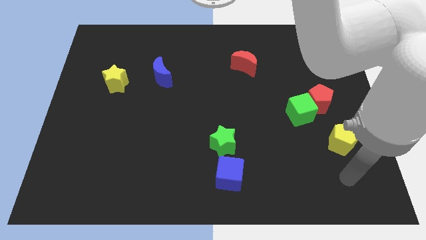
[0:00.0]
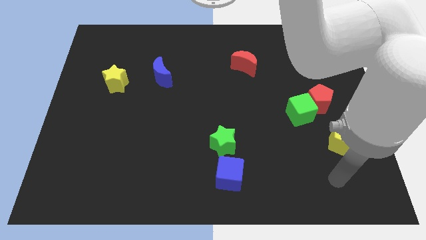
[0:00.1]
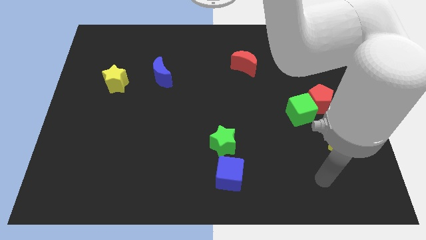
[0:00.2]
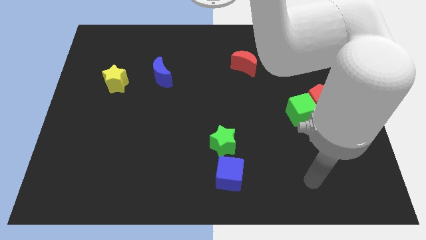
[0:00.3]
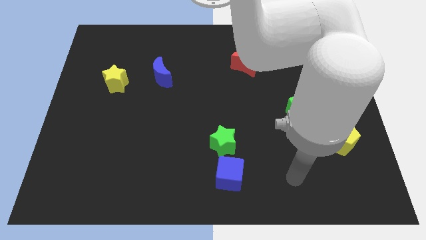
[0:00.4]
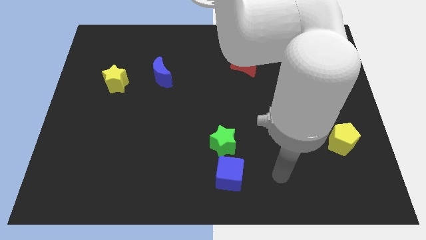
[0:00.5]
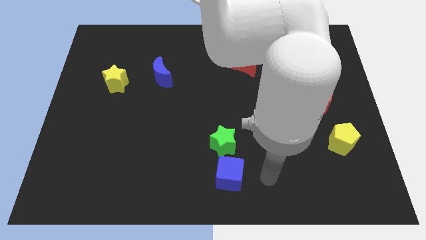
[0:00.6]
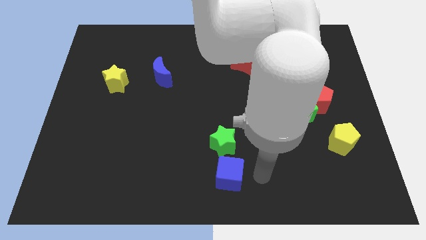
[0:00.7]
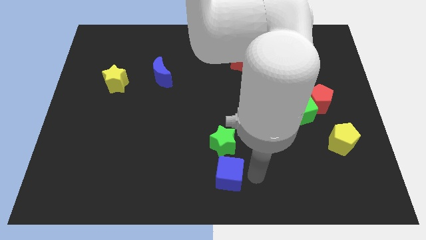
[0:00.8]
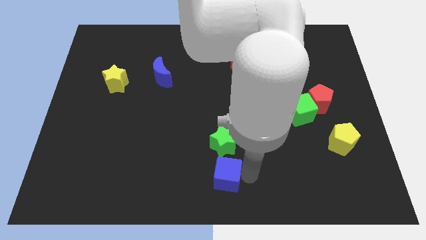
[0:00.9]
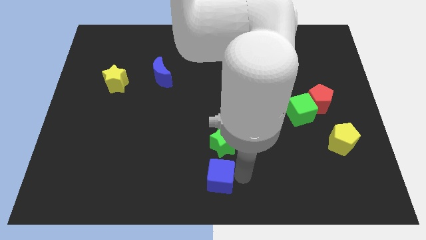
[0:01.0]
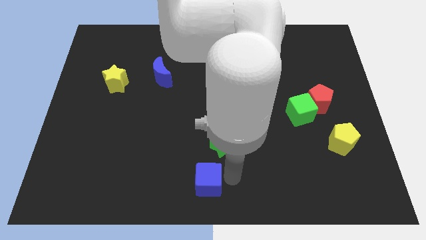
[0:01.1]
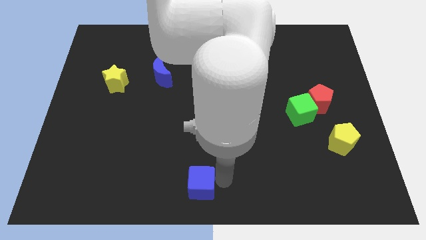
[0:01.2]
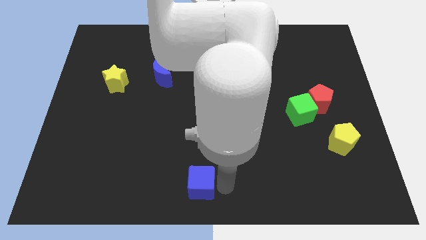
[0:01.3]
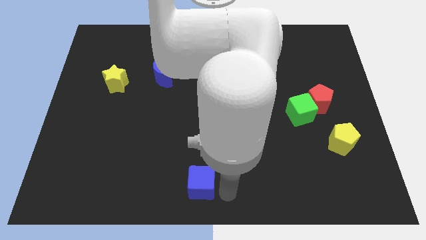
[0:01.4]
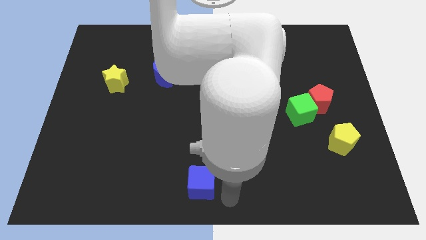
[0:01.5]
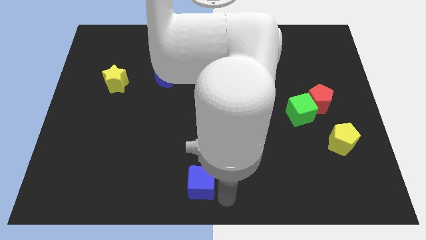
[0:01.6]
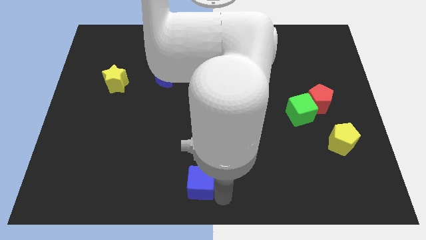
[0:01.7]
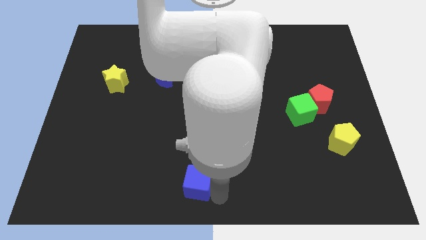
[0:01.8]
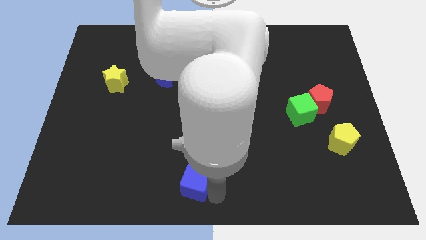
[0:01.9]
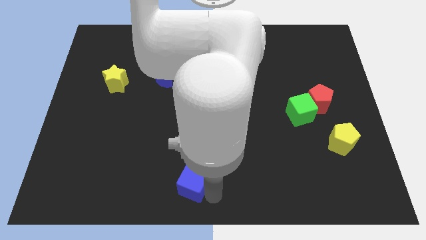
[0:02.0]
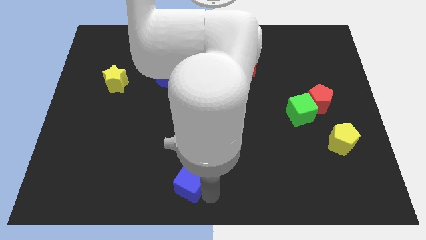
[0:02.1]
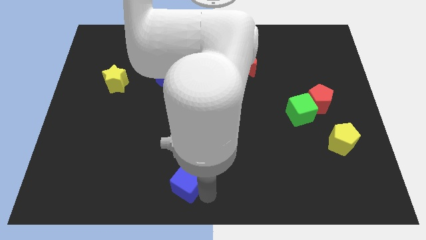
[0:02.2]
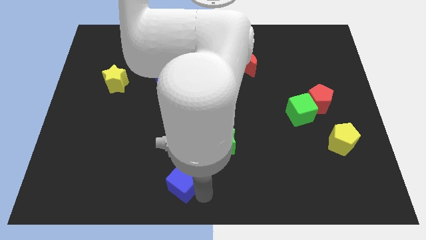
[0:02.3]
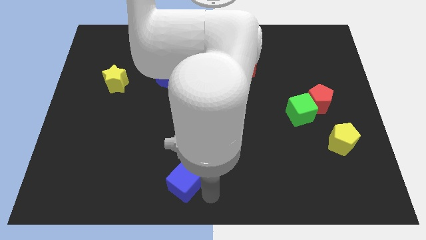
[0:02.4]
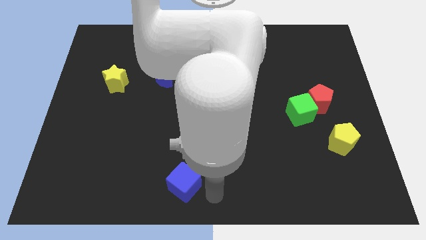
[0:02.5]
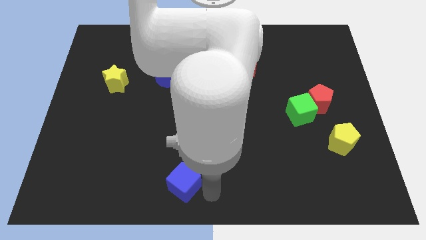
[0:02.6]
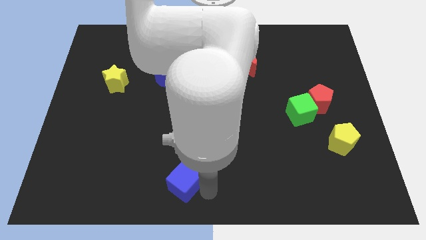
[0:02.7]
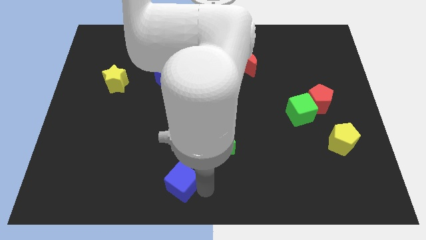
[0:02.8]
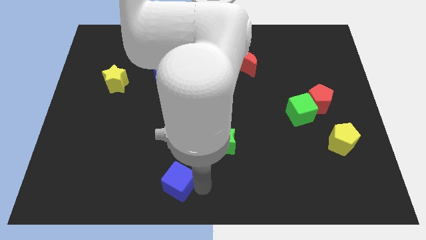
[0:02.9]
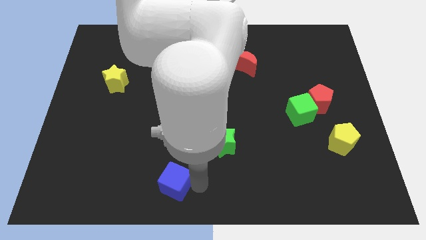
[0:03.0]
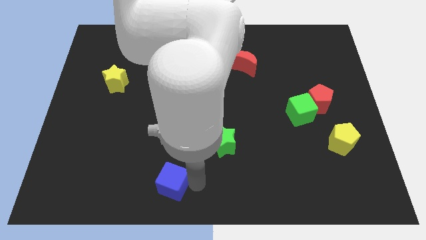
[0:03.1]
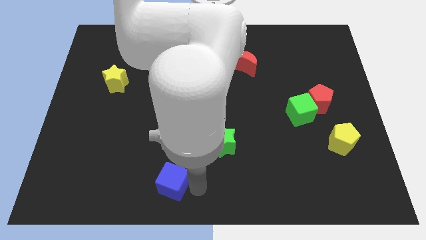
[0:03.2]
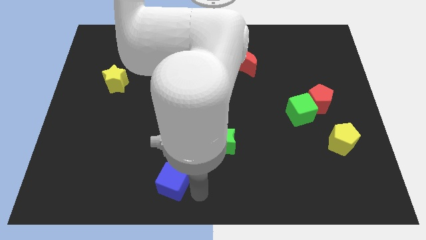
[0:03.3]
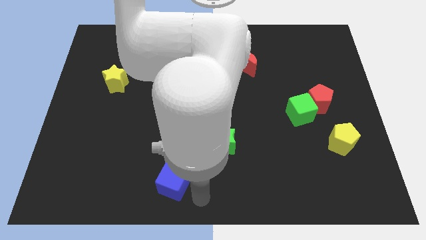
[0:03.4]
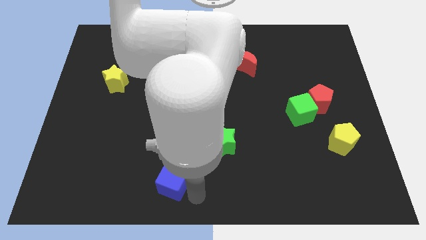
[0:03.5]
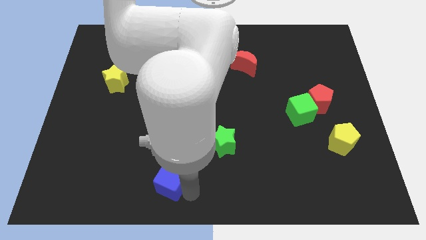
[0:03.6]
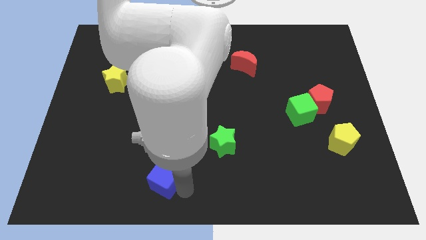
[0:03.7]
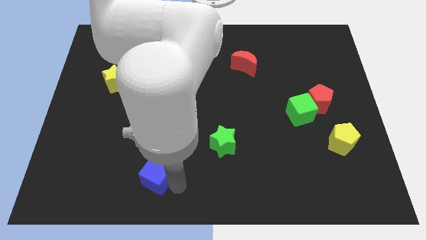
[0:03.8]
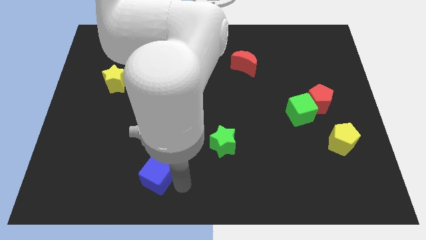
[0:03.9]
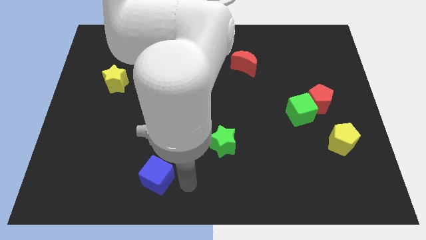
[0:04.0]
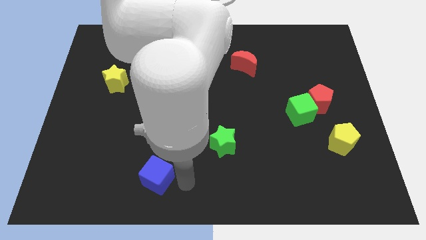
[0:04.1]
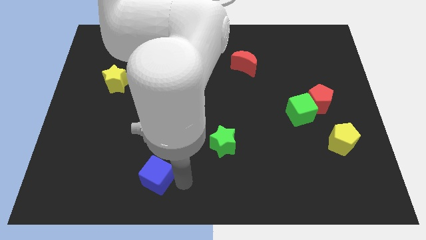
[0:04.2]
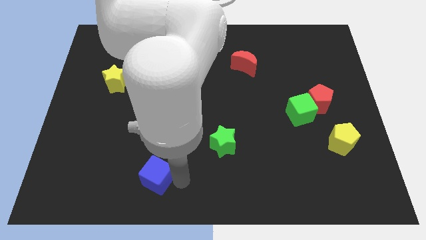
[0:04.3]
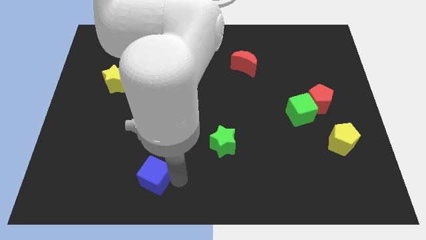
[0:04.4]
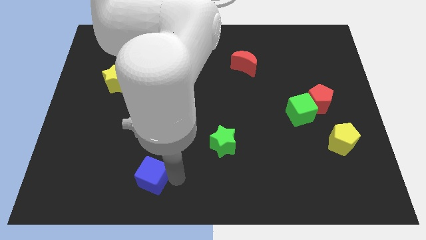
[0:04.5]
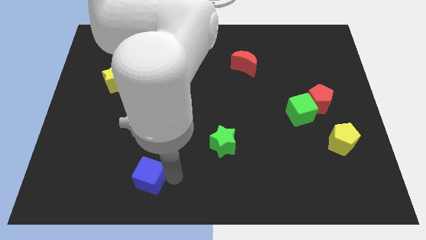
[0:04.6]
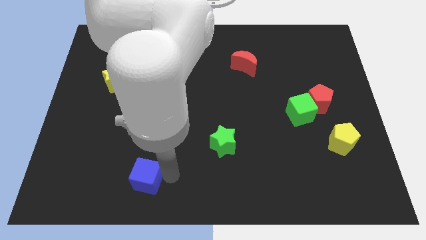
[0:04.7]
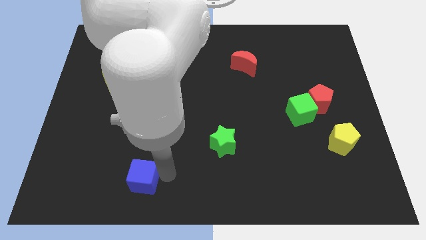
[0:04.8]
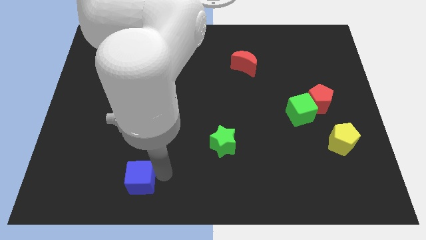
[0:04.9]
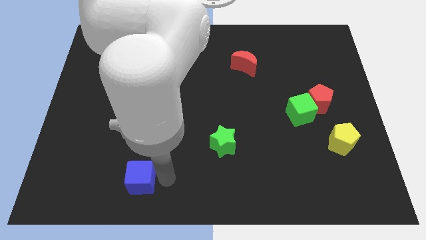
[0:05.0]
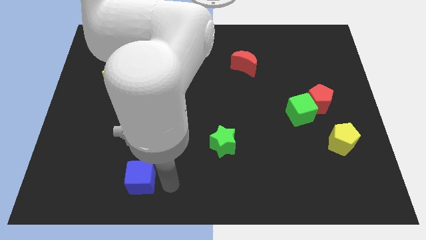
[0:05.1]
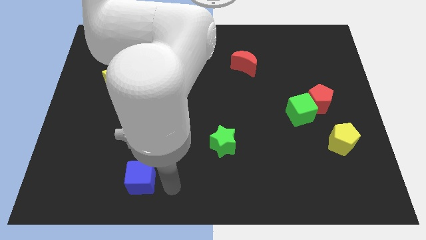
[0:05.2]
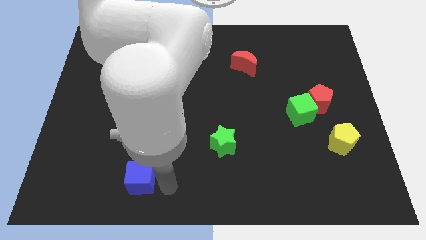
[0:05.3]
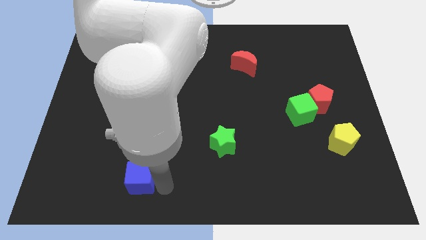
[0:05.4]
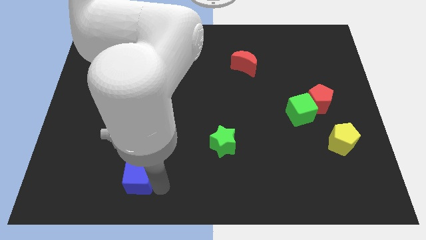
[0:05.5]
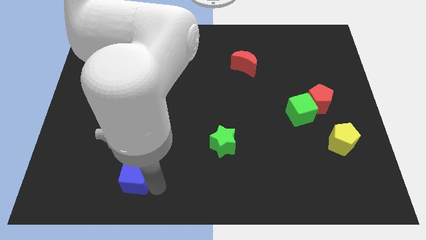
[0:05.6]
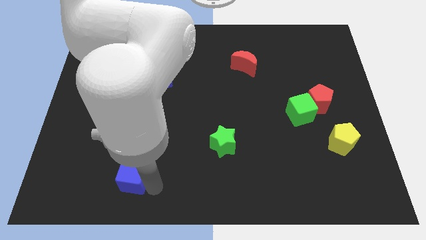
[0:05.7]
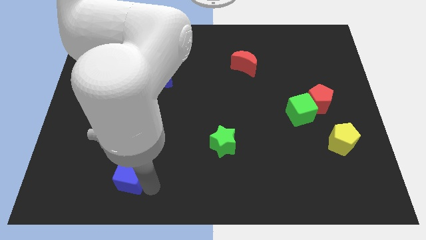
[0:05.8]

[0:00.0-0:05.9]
push the blue cube left

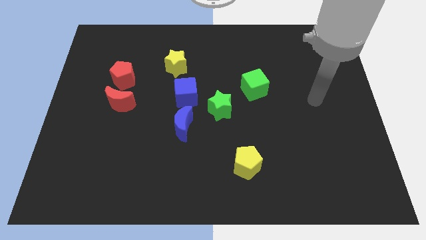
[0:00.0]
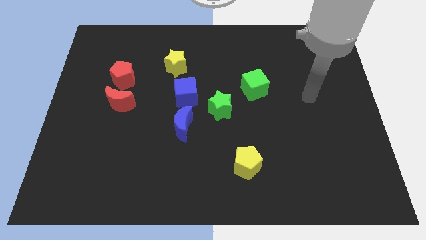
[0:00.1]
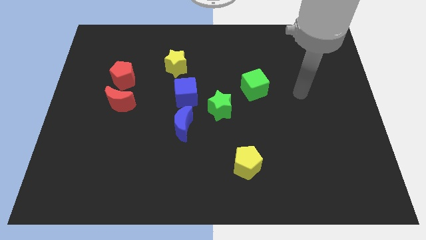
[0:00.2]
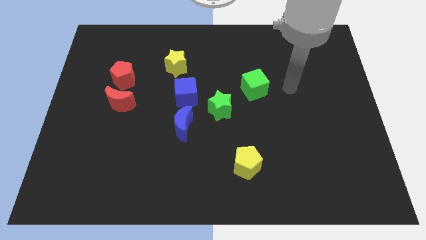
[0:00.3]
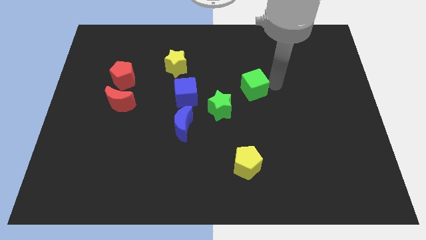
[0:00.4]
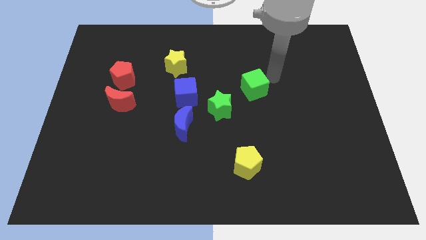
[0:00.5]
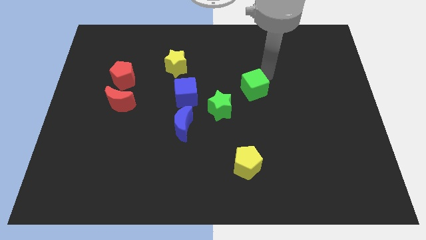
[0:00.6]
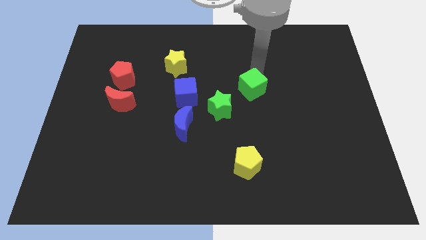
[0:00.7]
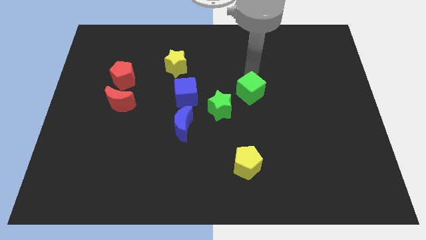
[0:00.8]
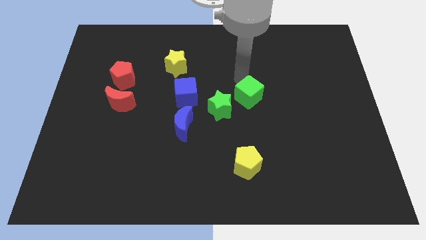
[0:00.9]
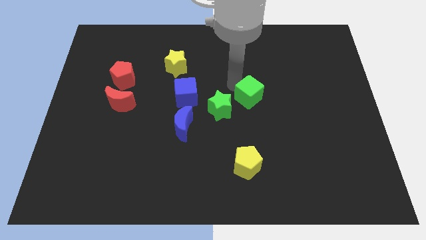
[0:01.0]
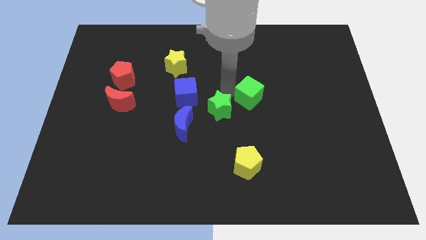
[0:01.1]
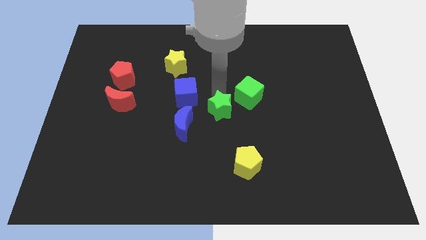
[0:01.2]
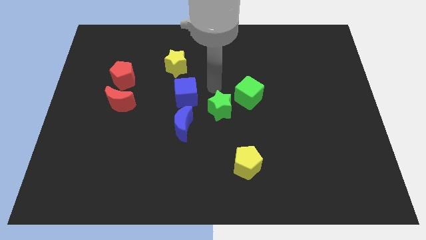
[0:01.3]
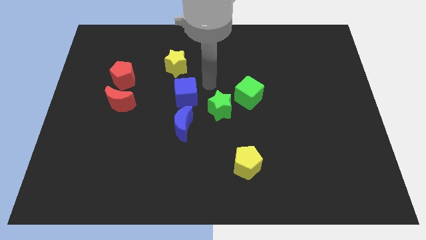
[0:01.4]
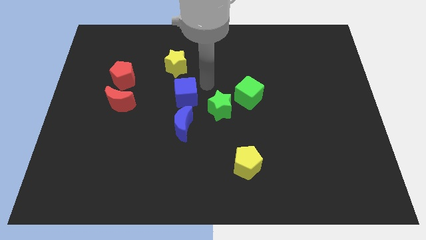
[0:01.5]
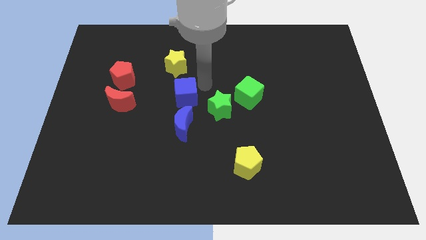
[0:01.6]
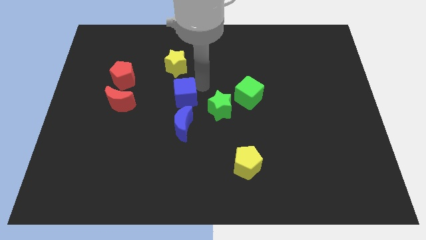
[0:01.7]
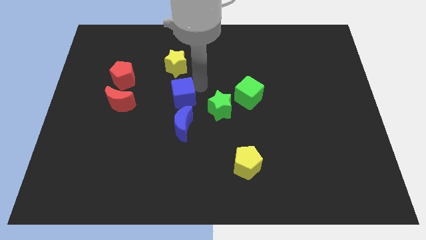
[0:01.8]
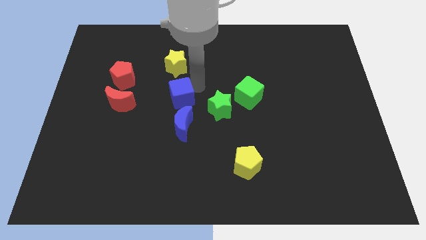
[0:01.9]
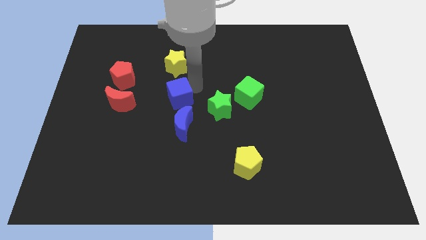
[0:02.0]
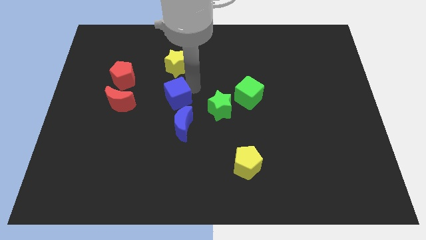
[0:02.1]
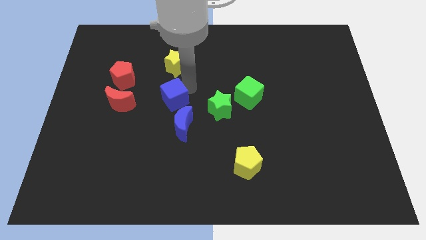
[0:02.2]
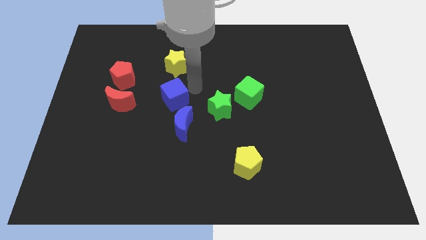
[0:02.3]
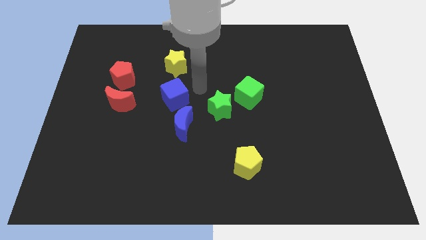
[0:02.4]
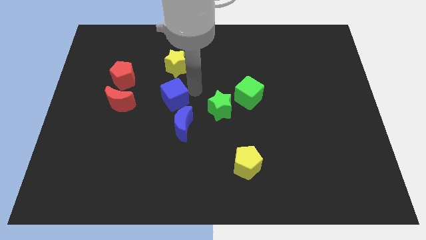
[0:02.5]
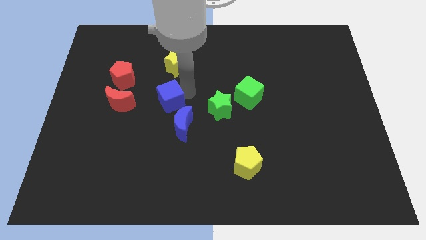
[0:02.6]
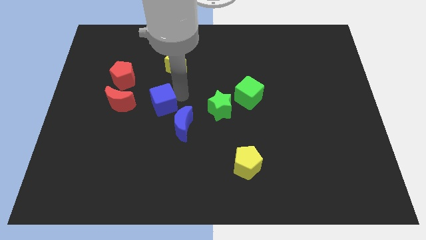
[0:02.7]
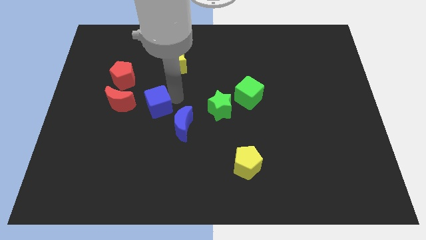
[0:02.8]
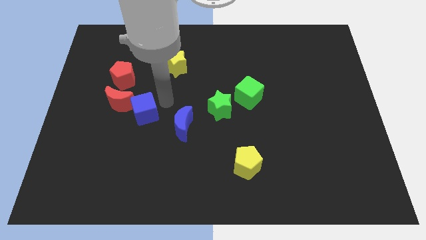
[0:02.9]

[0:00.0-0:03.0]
push the blue cube slightly left
